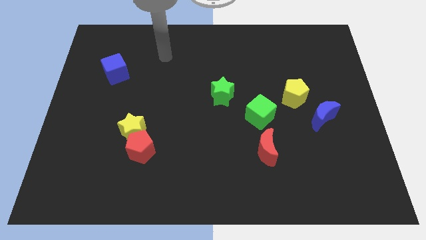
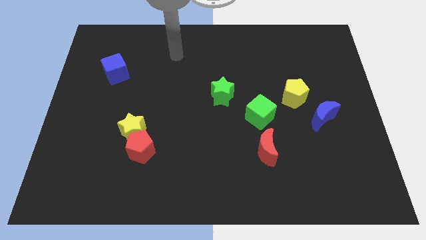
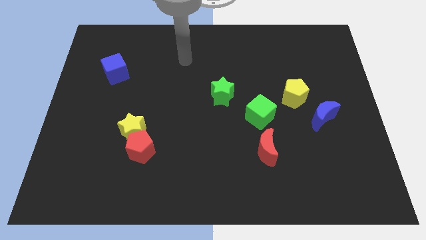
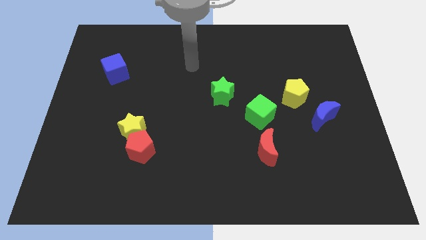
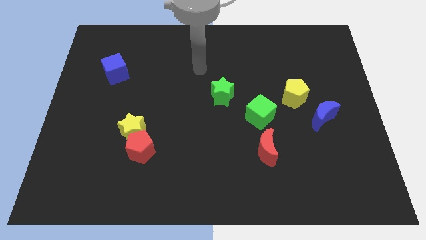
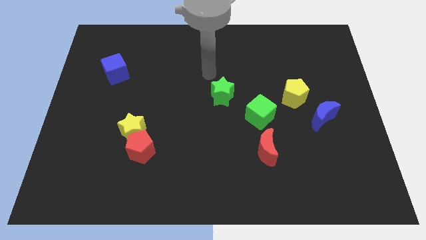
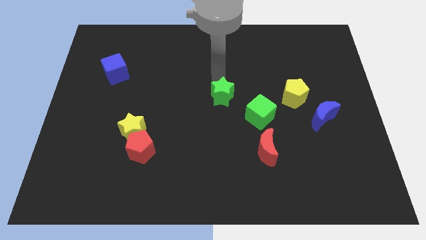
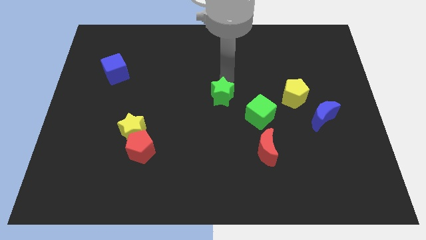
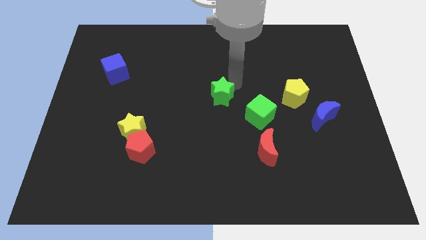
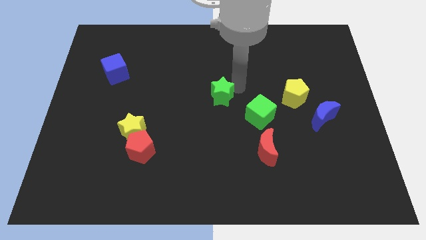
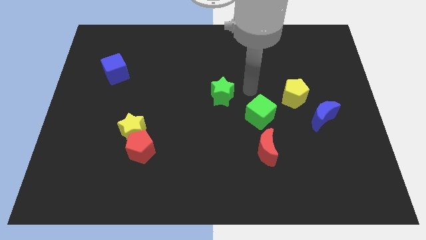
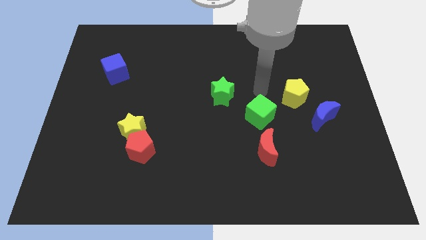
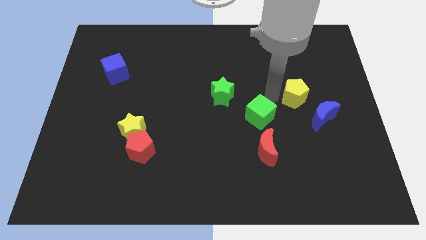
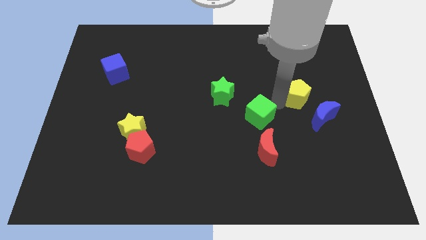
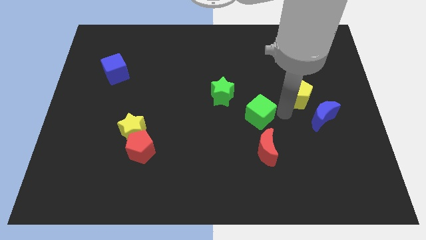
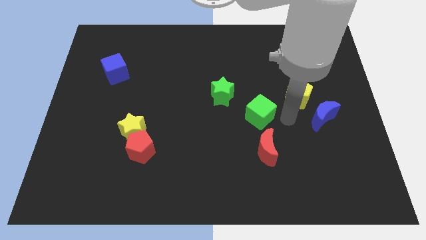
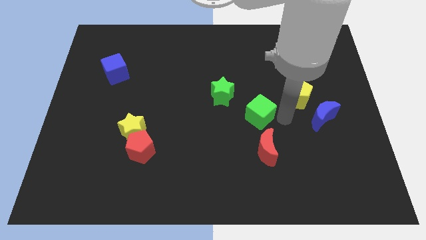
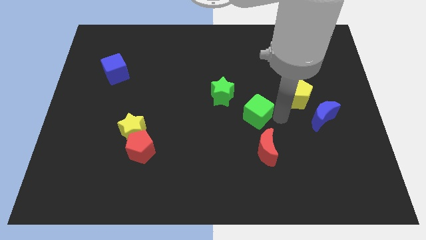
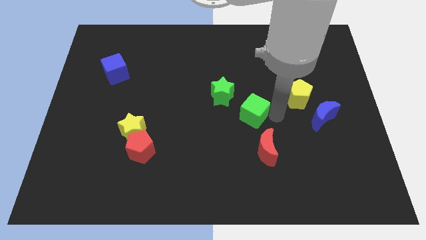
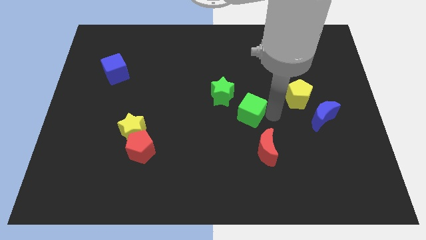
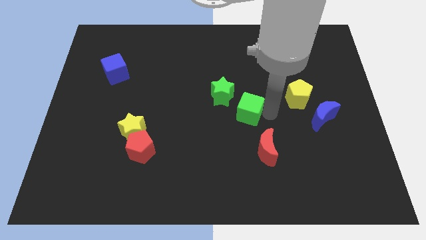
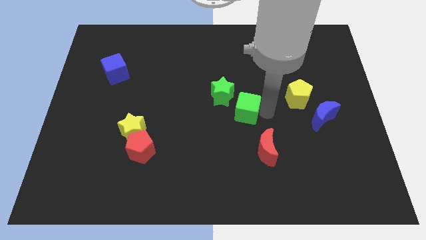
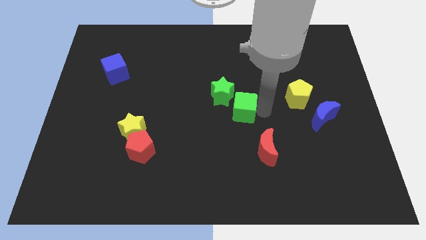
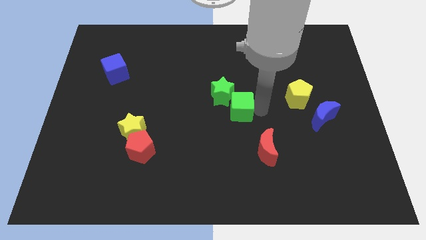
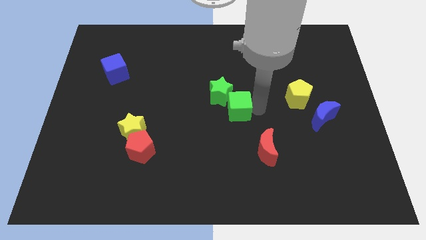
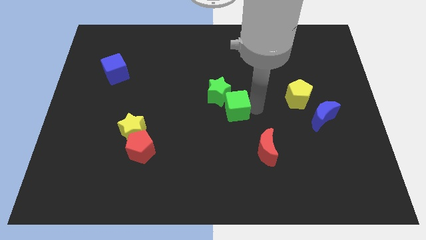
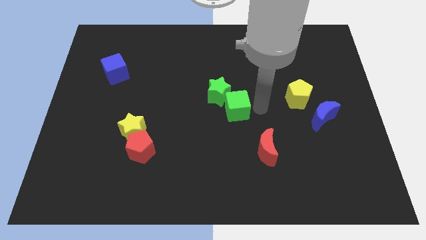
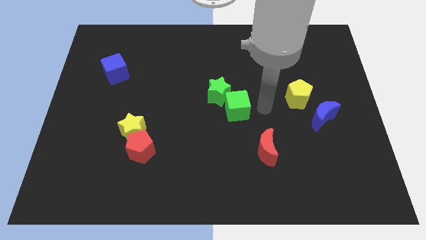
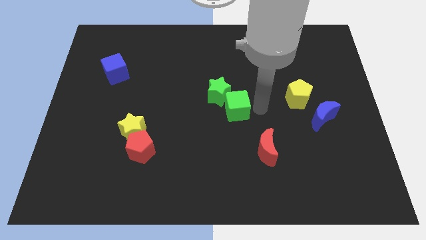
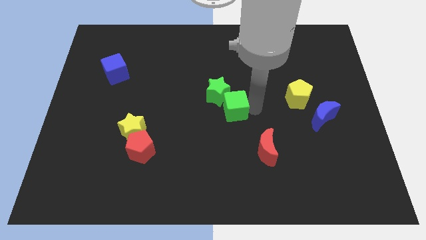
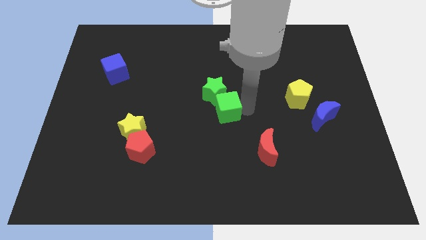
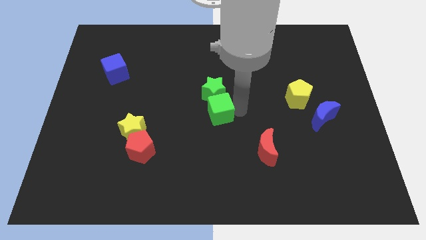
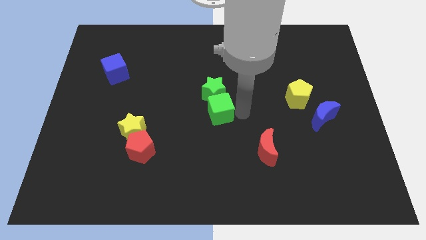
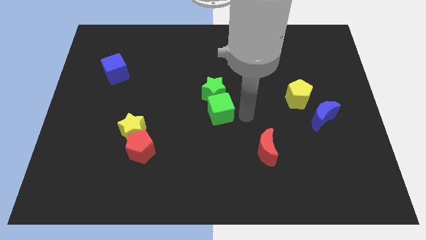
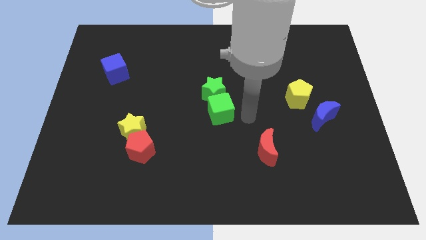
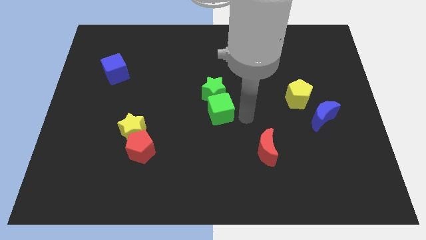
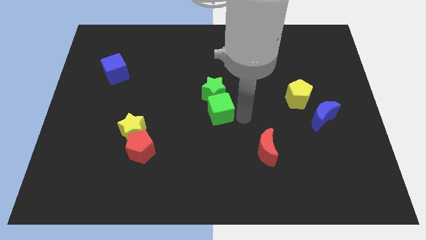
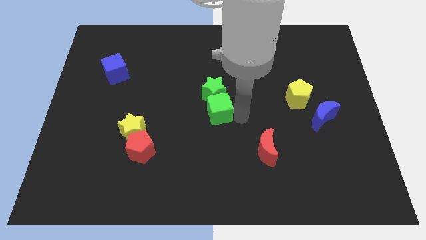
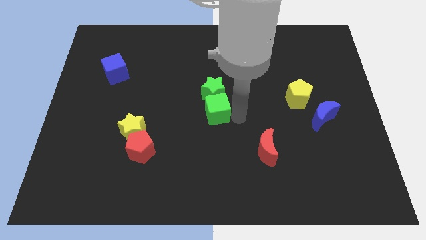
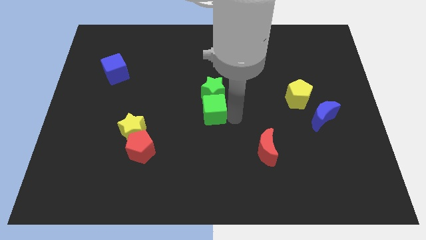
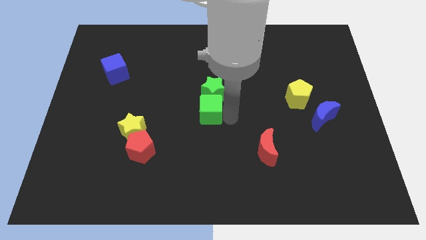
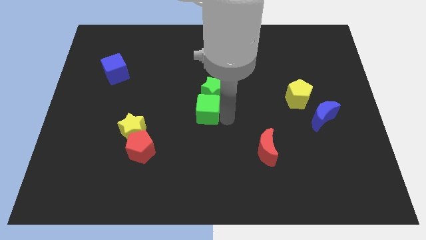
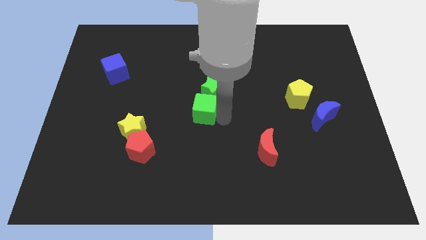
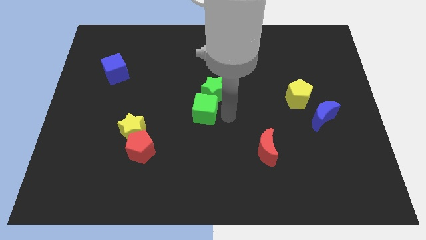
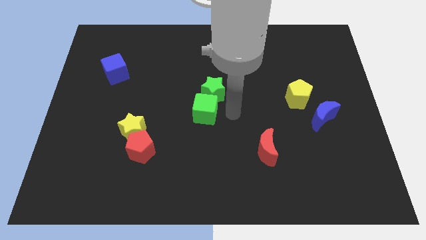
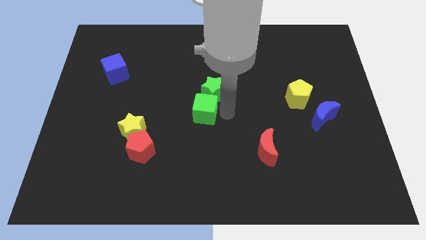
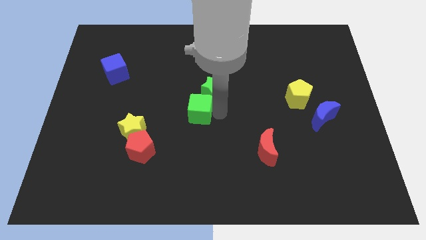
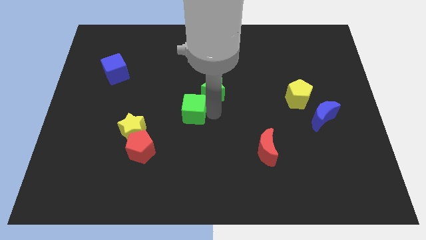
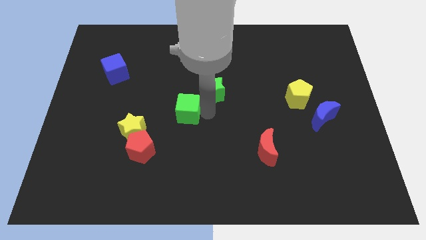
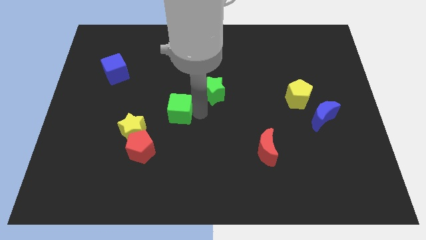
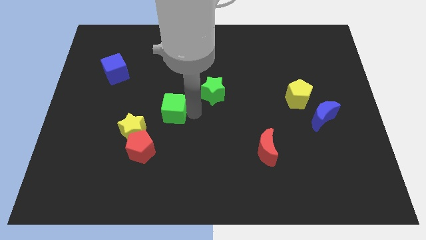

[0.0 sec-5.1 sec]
slide the green cube to the left

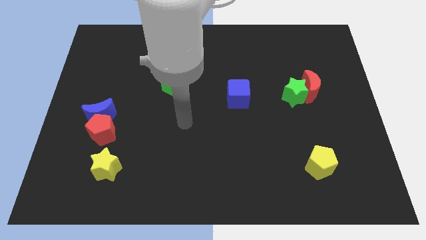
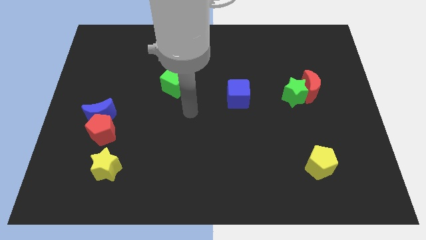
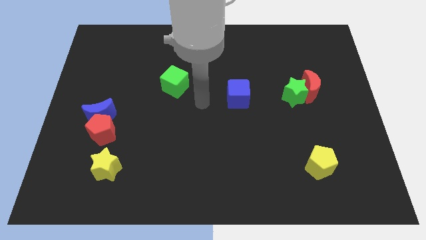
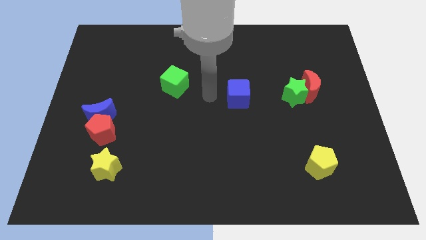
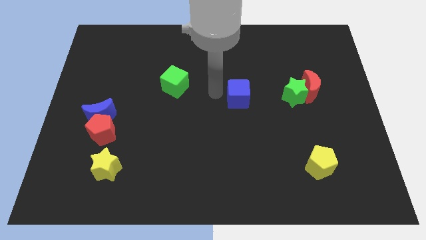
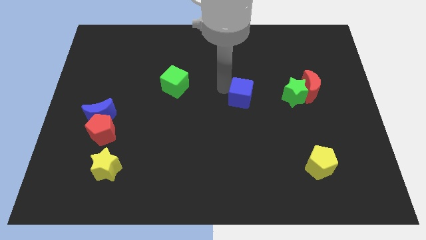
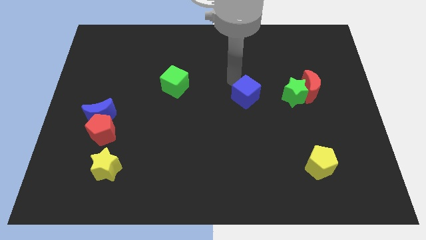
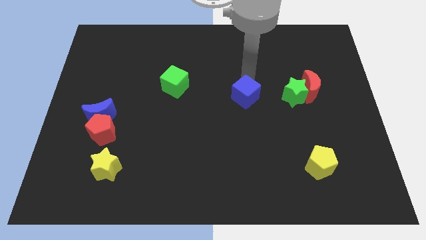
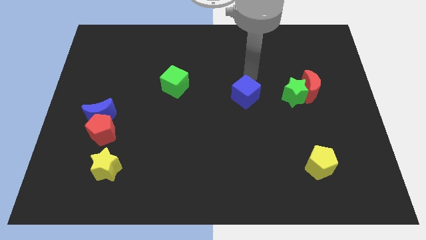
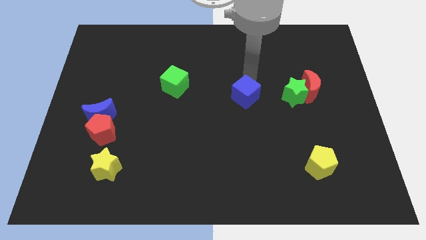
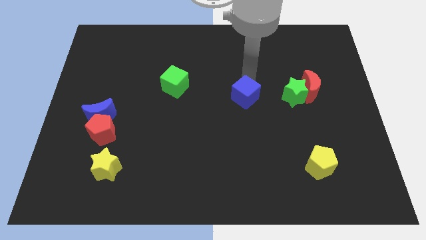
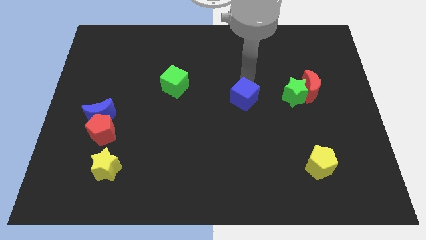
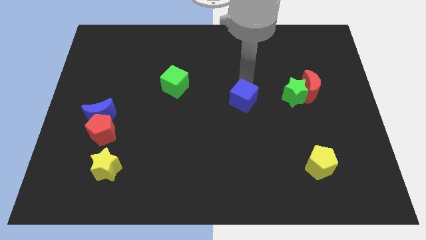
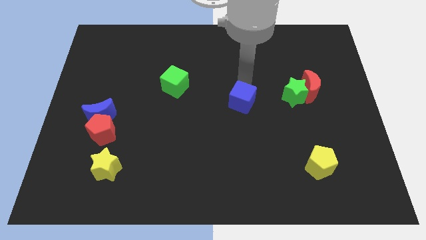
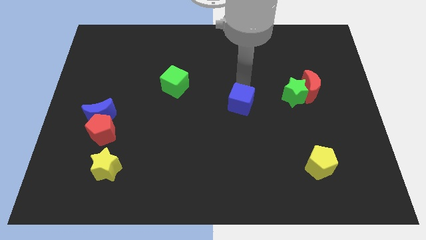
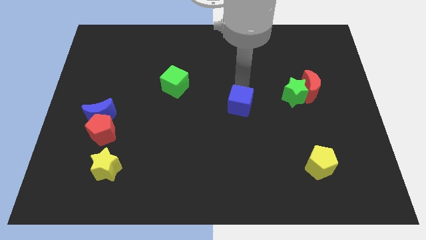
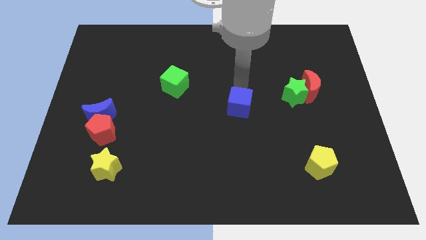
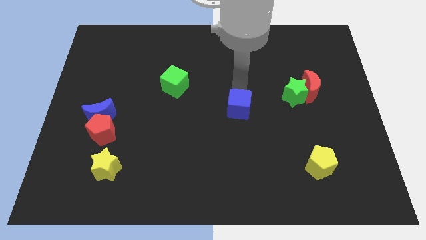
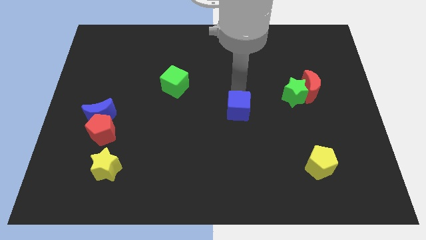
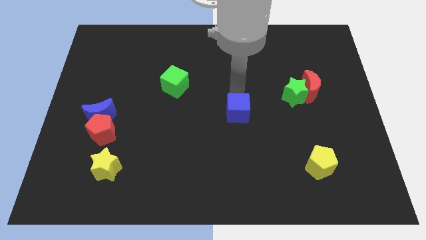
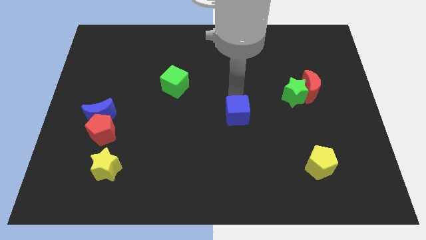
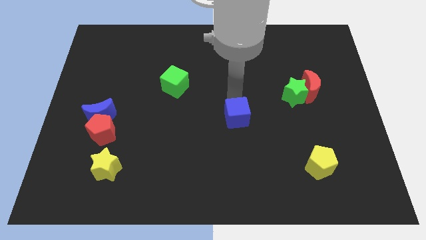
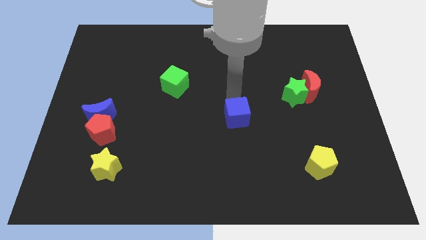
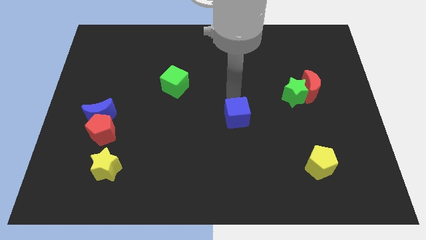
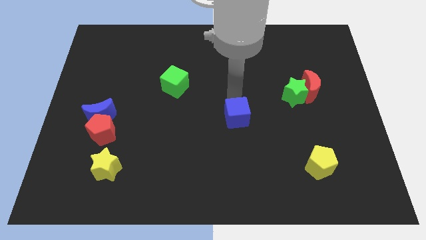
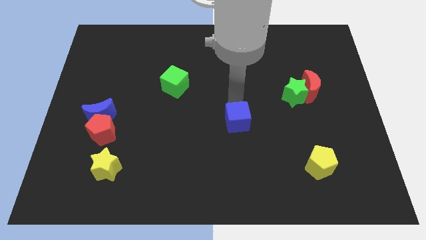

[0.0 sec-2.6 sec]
slightly push the blue cube downwards
